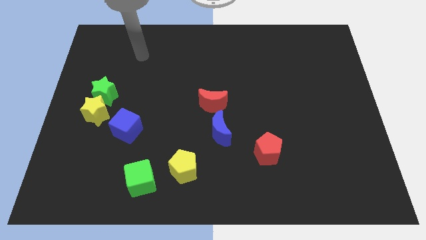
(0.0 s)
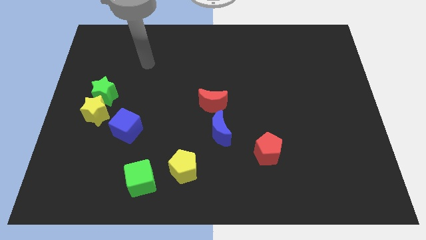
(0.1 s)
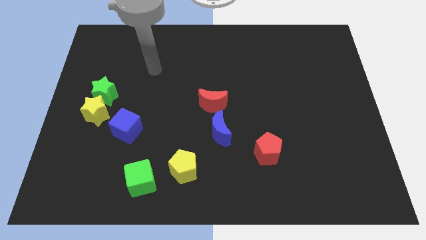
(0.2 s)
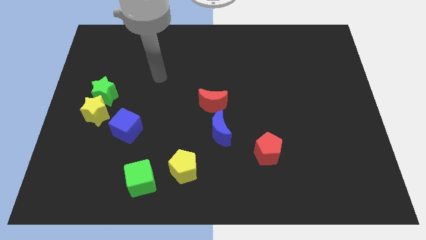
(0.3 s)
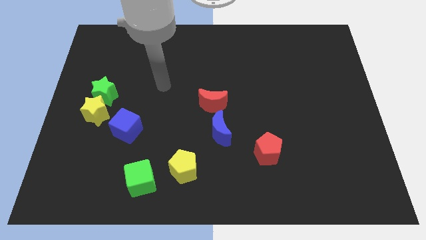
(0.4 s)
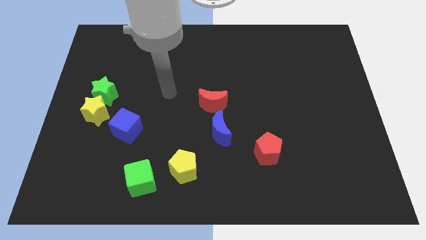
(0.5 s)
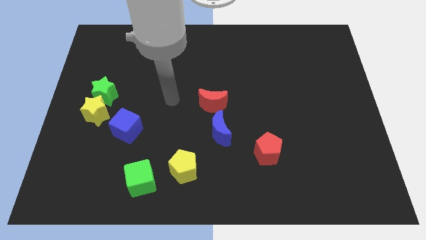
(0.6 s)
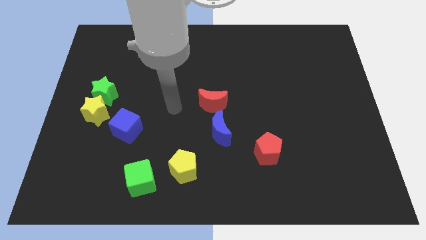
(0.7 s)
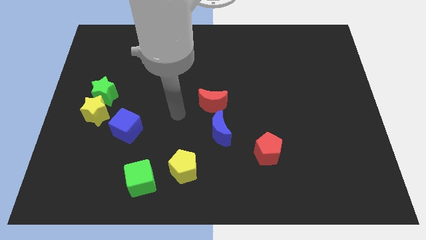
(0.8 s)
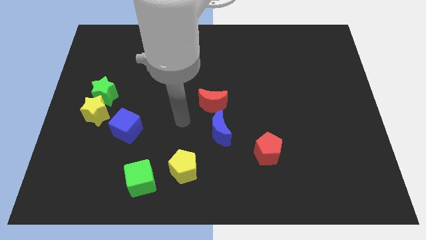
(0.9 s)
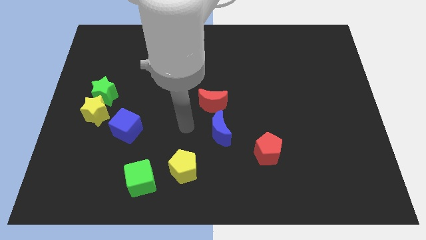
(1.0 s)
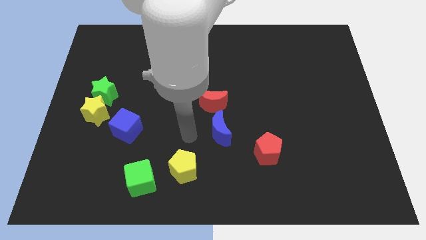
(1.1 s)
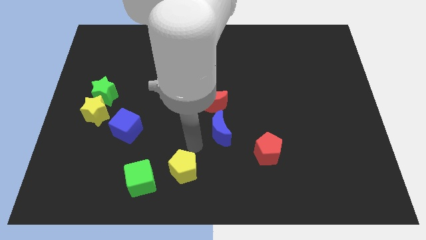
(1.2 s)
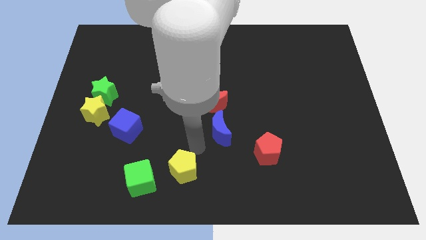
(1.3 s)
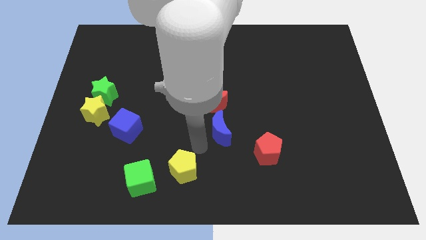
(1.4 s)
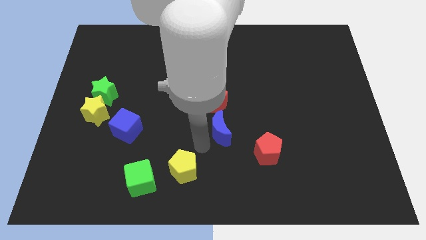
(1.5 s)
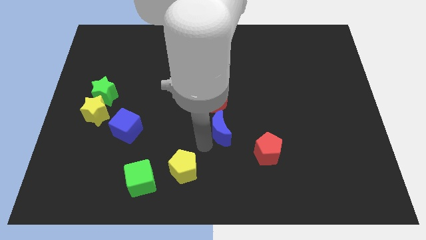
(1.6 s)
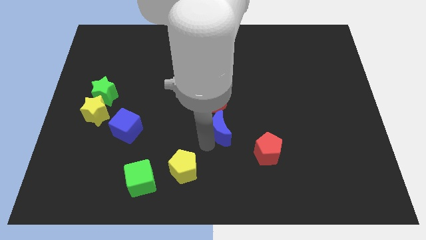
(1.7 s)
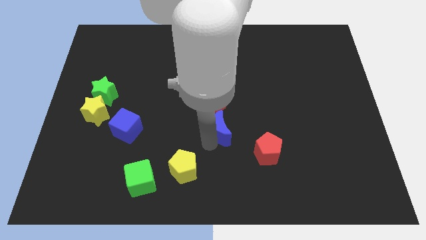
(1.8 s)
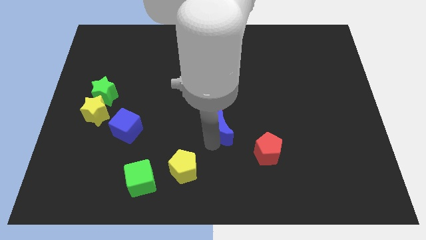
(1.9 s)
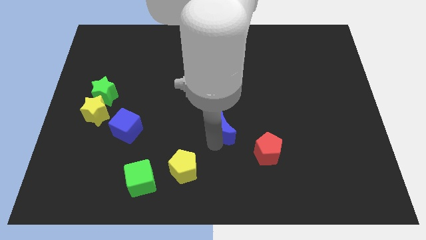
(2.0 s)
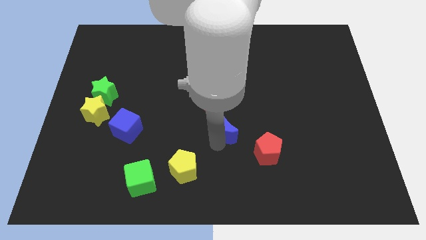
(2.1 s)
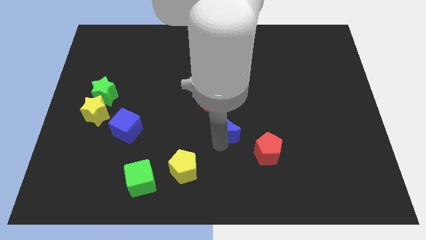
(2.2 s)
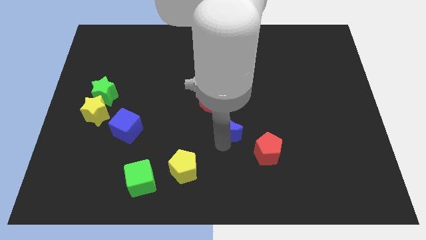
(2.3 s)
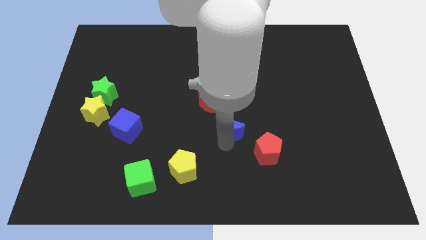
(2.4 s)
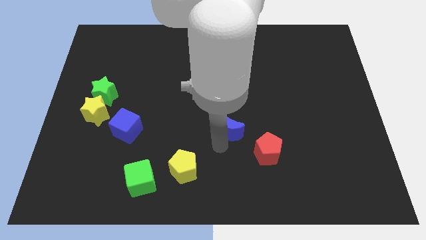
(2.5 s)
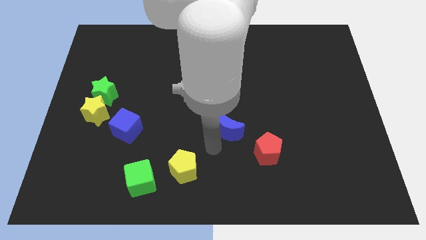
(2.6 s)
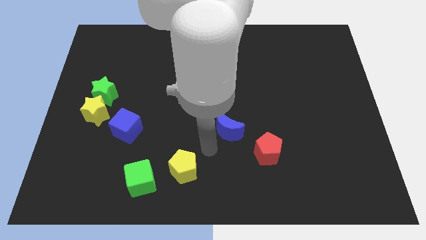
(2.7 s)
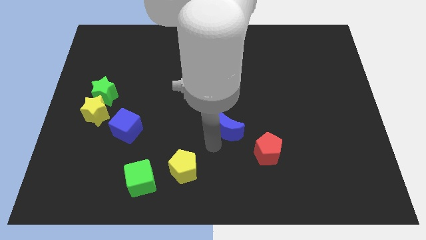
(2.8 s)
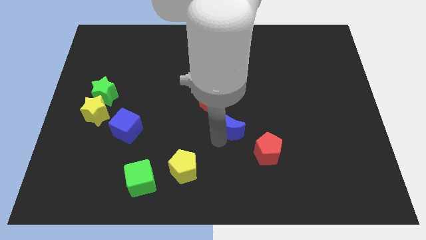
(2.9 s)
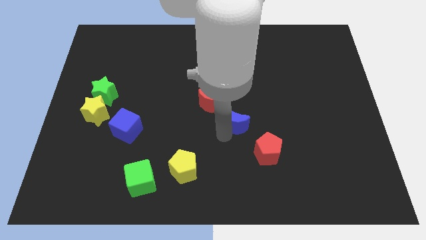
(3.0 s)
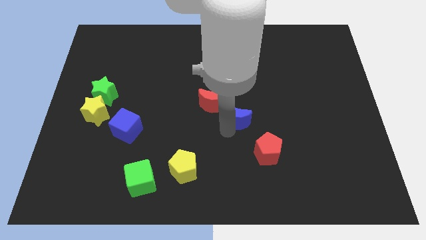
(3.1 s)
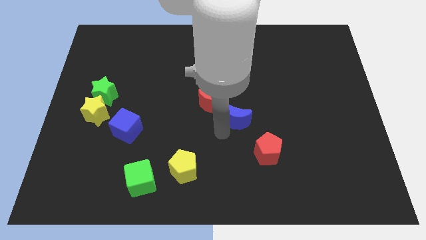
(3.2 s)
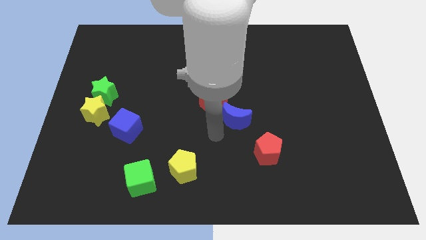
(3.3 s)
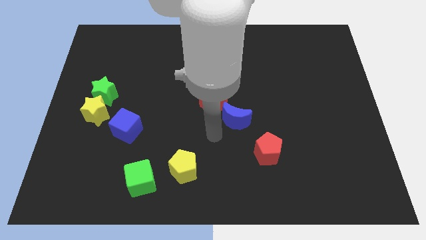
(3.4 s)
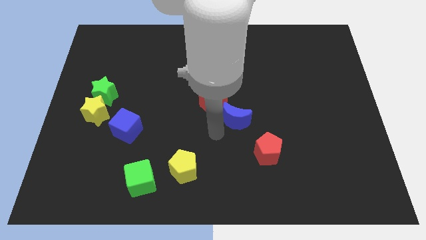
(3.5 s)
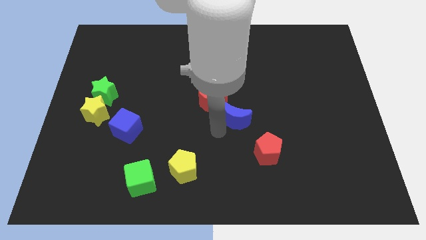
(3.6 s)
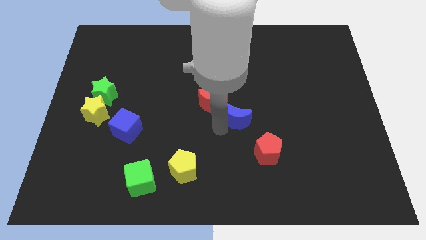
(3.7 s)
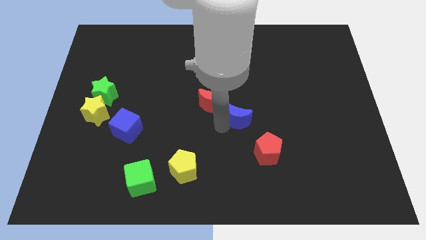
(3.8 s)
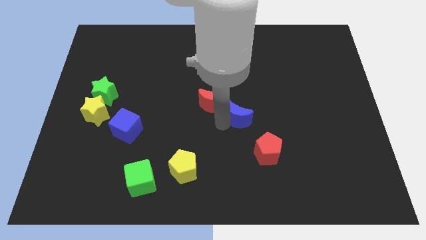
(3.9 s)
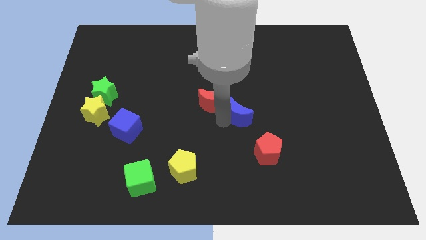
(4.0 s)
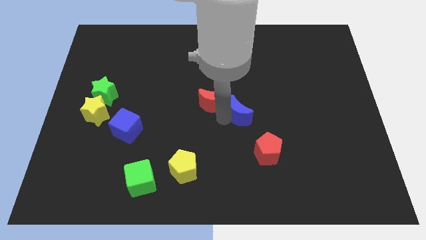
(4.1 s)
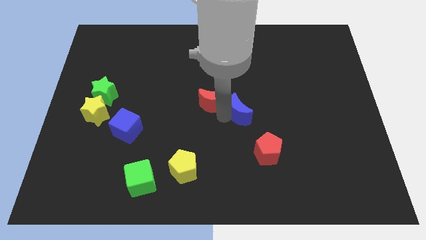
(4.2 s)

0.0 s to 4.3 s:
push the blue moon upwards and to the right a little

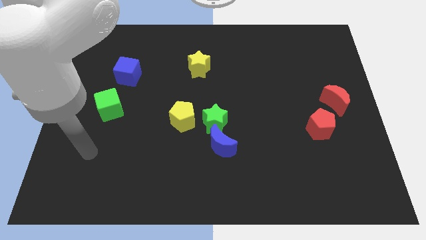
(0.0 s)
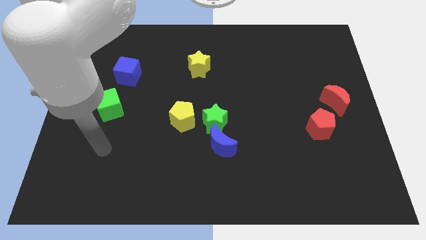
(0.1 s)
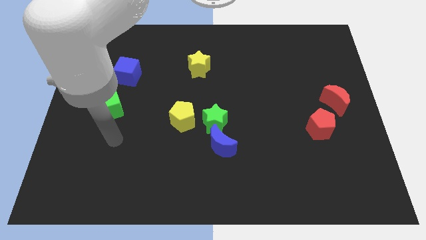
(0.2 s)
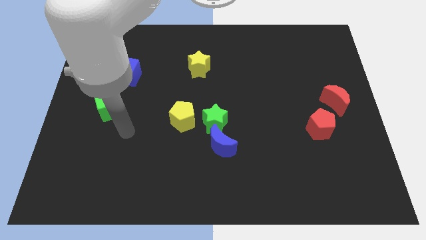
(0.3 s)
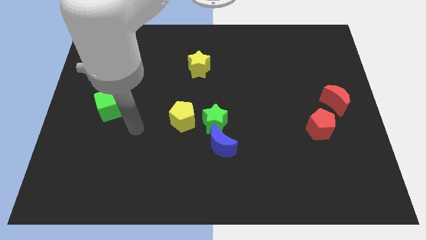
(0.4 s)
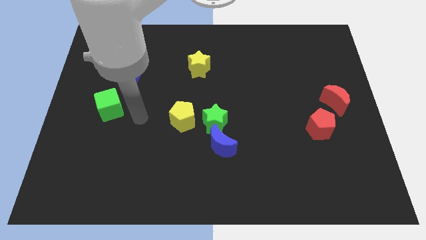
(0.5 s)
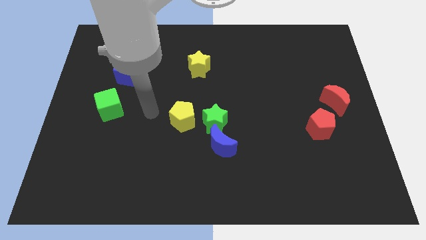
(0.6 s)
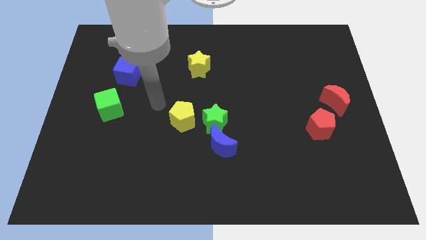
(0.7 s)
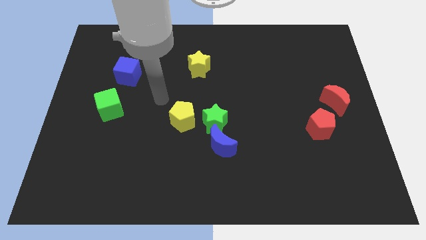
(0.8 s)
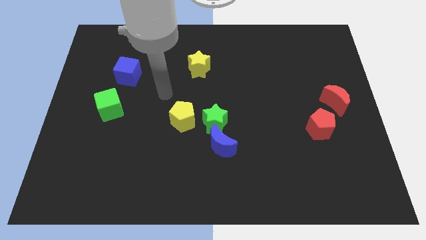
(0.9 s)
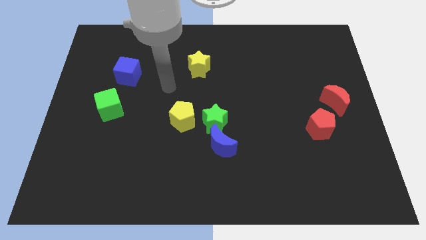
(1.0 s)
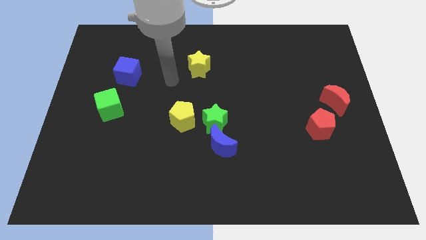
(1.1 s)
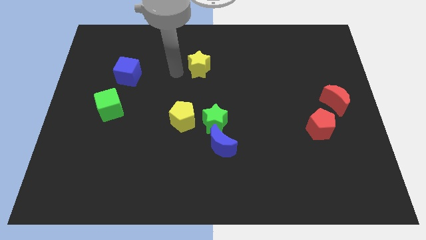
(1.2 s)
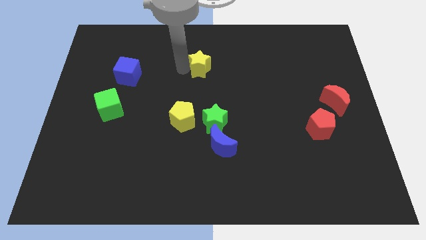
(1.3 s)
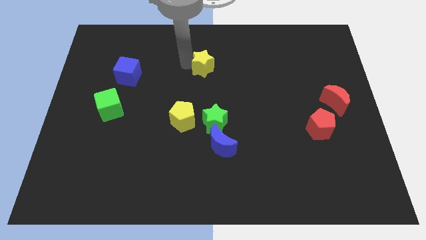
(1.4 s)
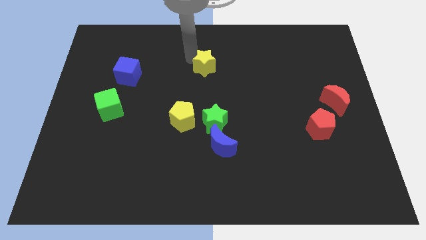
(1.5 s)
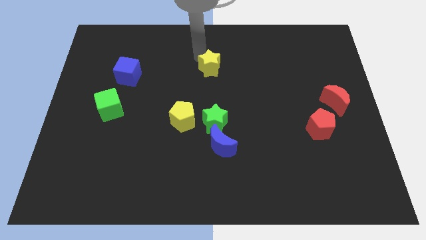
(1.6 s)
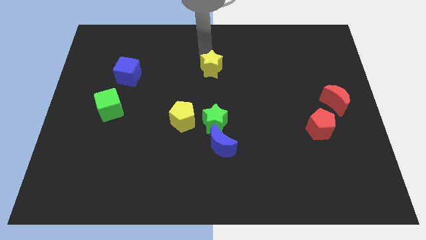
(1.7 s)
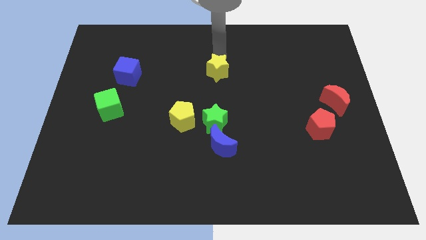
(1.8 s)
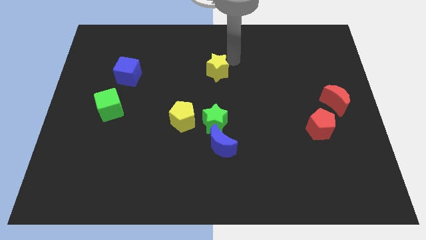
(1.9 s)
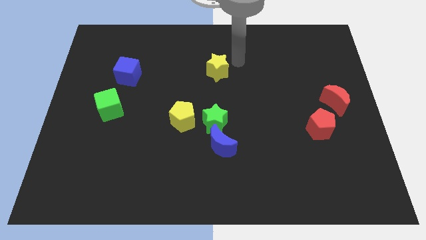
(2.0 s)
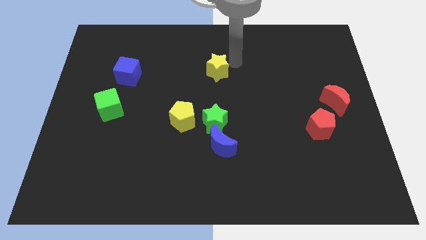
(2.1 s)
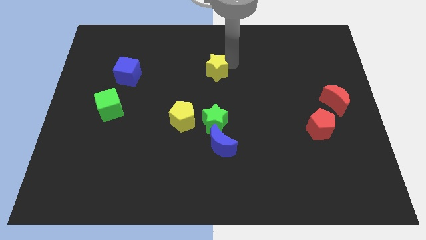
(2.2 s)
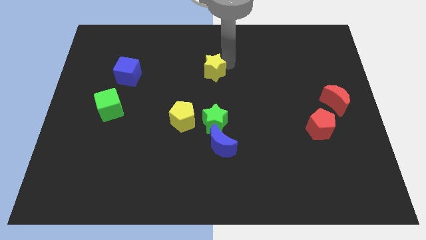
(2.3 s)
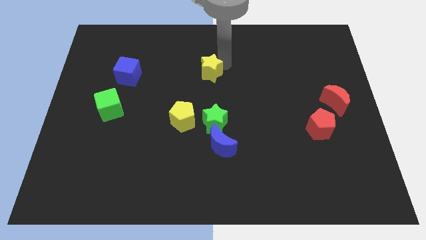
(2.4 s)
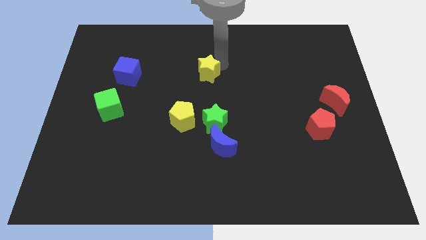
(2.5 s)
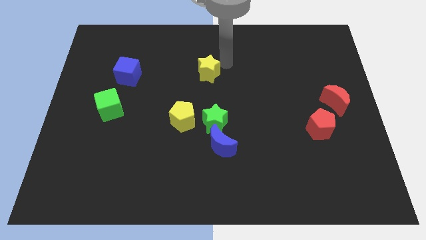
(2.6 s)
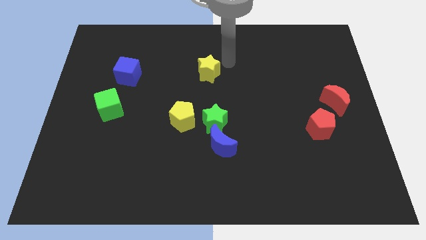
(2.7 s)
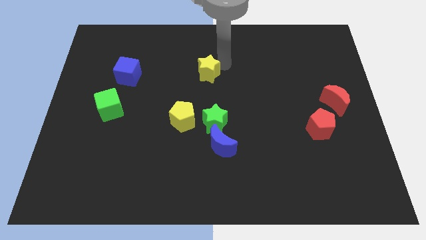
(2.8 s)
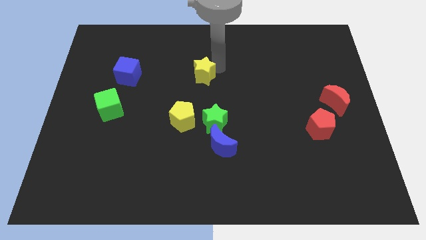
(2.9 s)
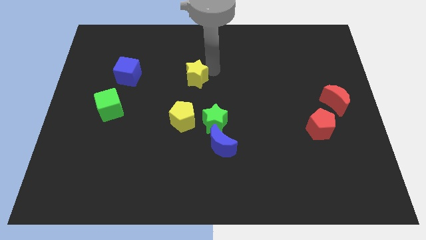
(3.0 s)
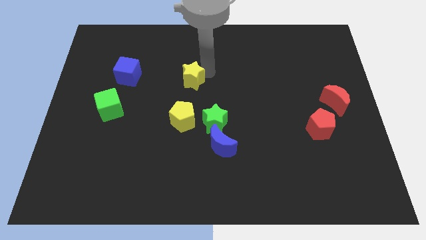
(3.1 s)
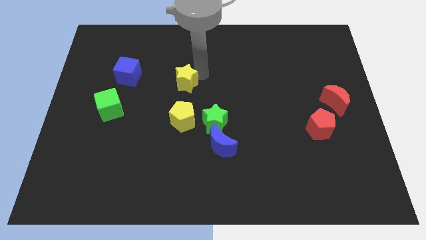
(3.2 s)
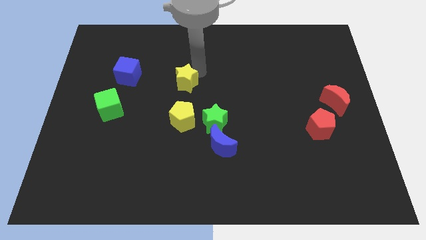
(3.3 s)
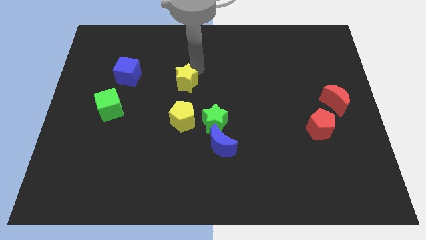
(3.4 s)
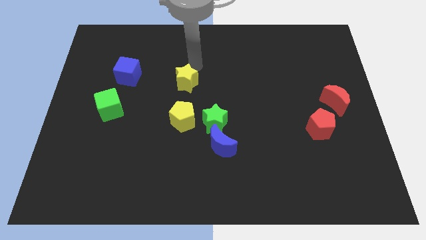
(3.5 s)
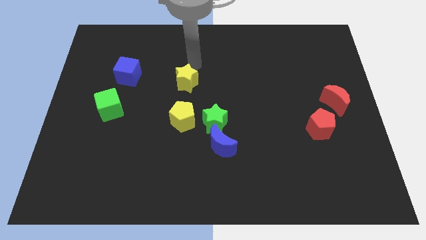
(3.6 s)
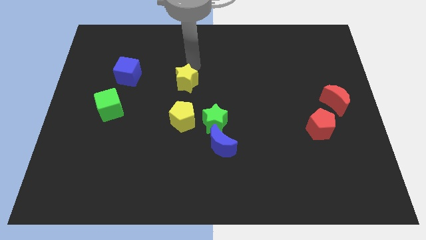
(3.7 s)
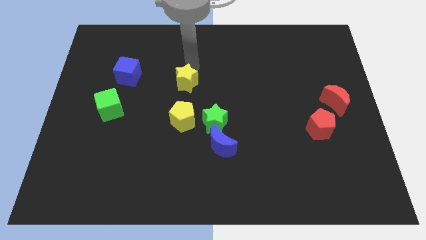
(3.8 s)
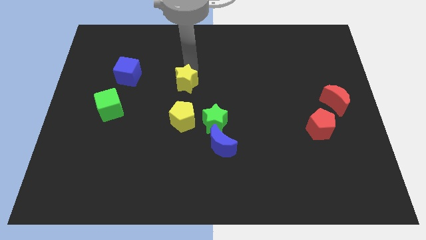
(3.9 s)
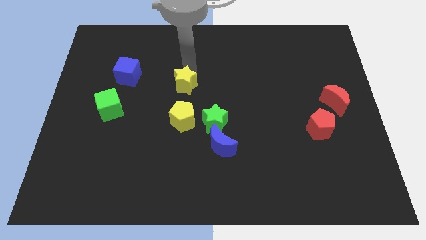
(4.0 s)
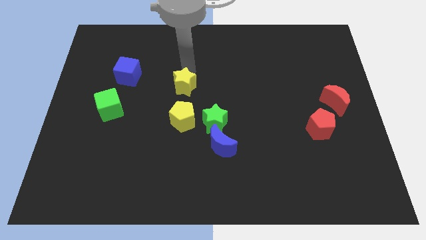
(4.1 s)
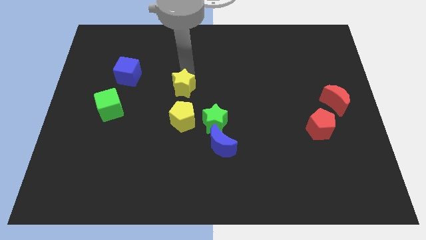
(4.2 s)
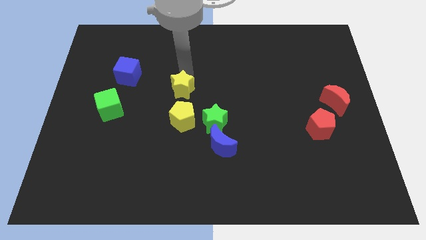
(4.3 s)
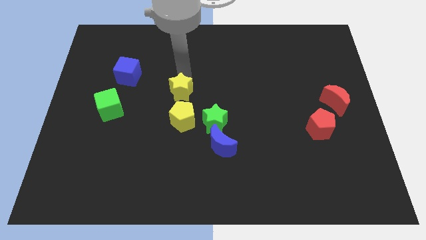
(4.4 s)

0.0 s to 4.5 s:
push the yellow star a bit down
